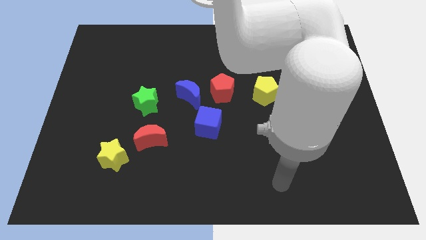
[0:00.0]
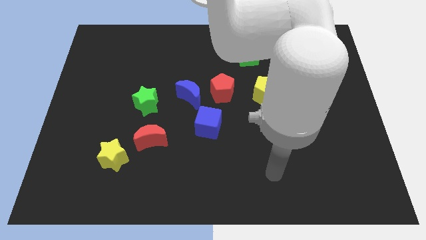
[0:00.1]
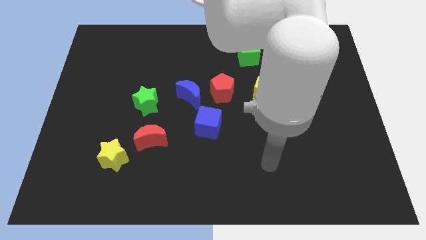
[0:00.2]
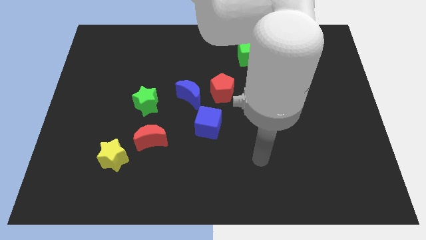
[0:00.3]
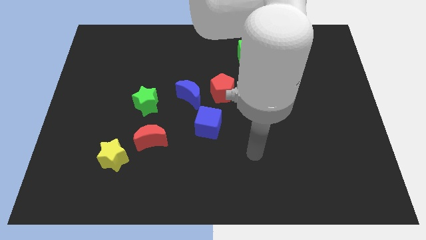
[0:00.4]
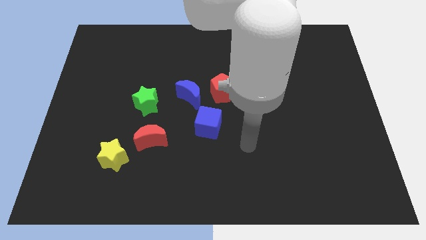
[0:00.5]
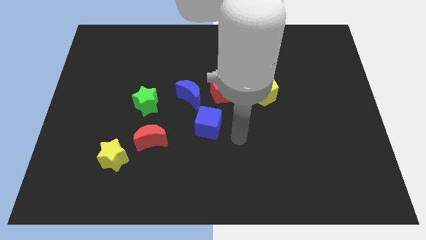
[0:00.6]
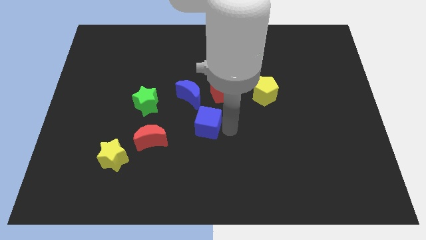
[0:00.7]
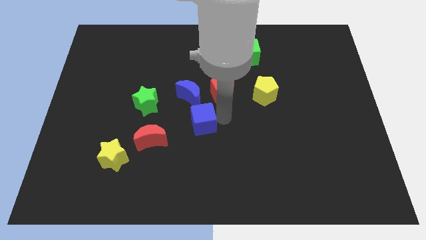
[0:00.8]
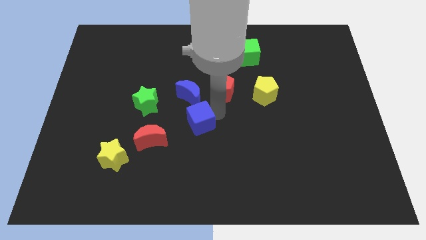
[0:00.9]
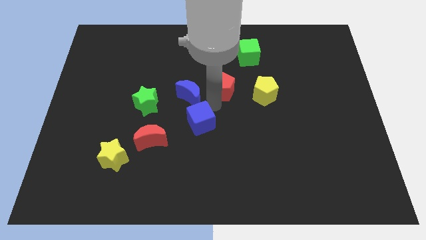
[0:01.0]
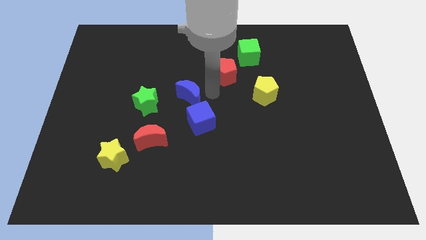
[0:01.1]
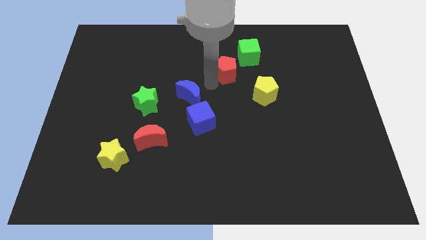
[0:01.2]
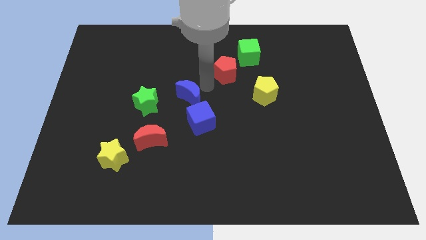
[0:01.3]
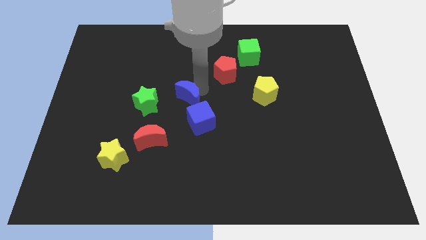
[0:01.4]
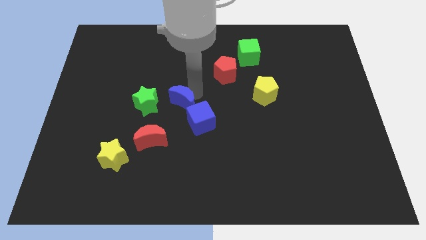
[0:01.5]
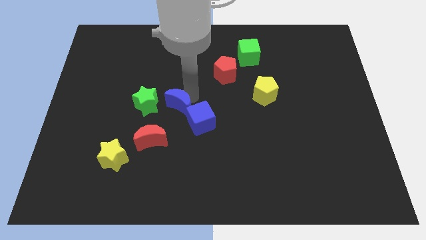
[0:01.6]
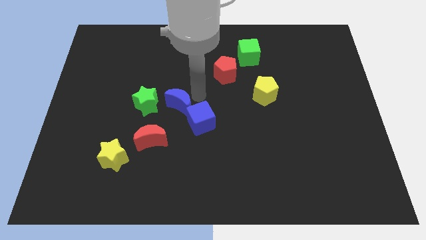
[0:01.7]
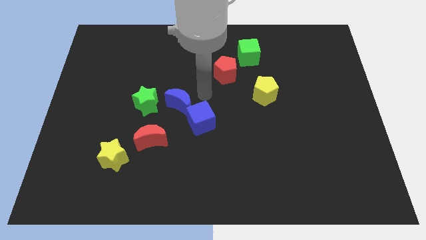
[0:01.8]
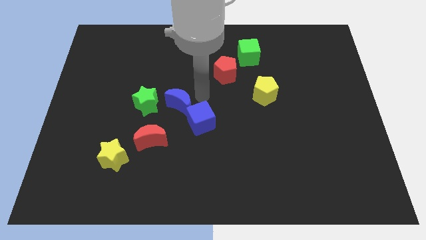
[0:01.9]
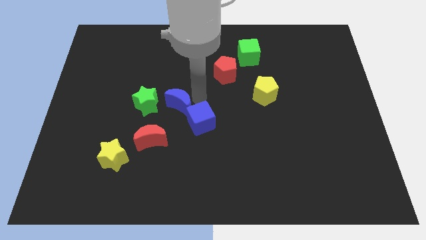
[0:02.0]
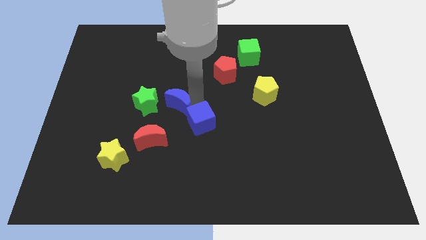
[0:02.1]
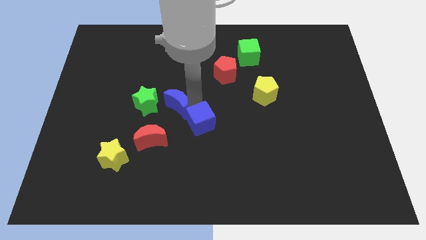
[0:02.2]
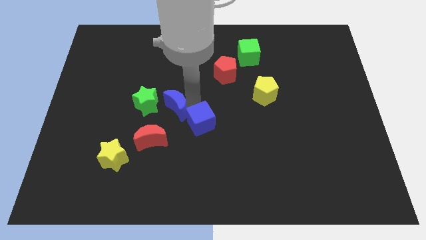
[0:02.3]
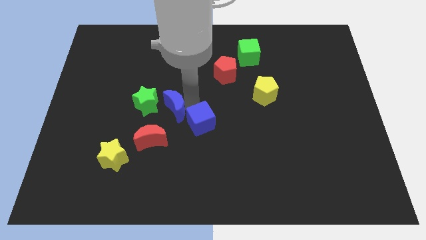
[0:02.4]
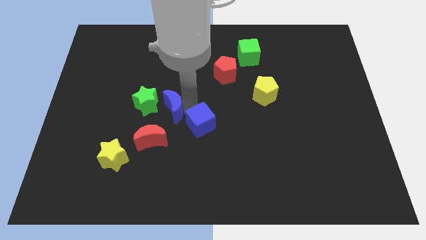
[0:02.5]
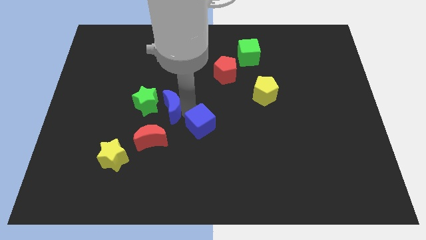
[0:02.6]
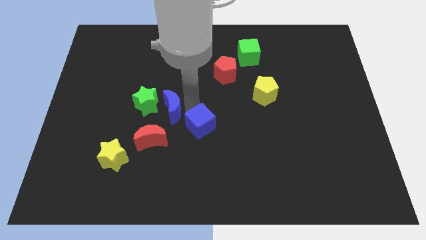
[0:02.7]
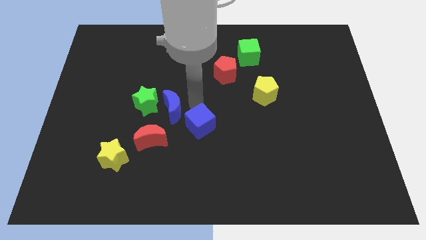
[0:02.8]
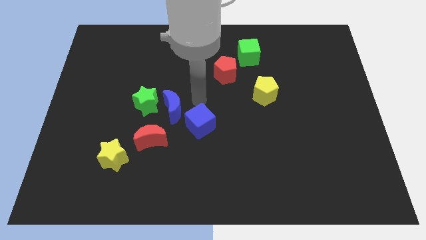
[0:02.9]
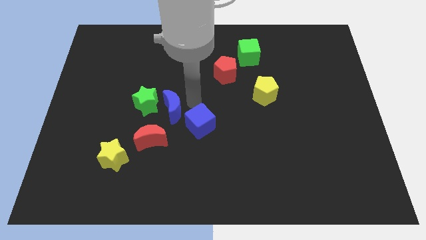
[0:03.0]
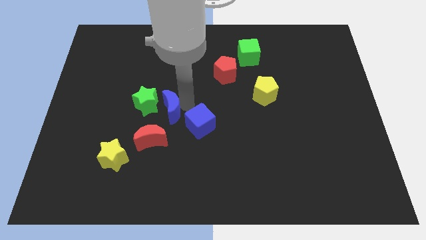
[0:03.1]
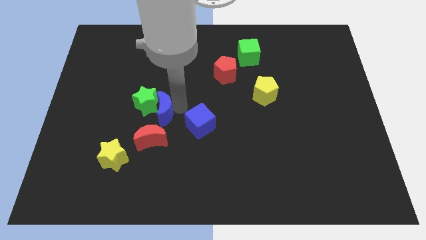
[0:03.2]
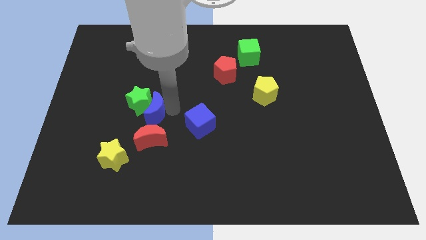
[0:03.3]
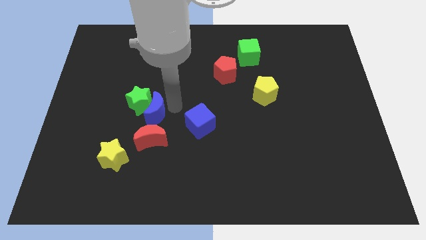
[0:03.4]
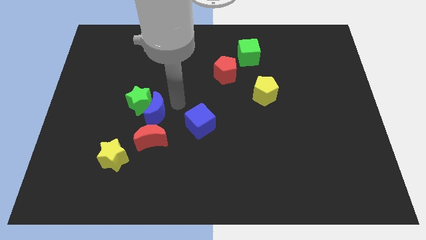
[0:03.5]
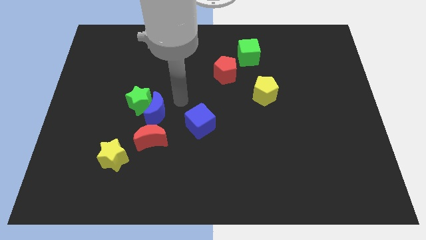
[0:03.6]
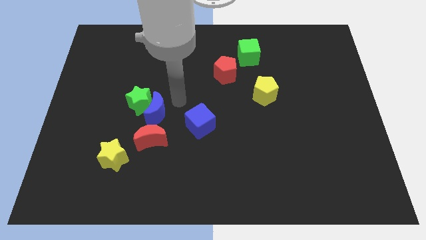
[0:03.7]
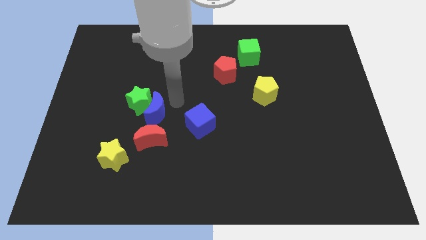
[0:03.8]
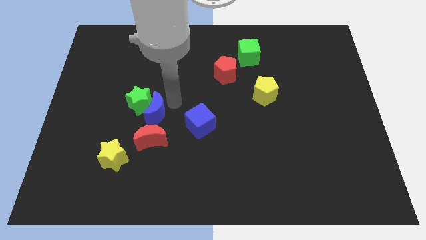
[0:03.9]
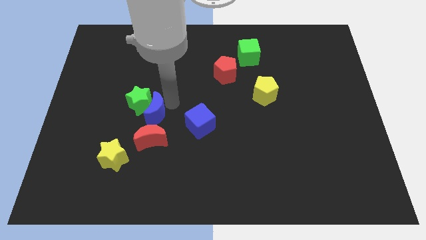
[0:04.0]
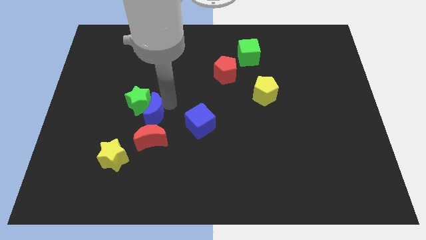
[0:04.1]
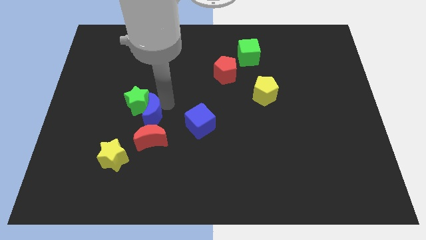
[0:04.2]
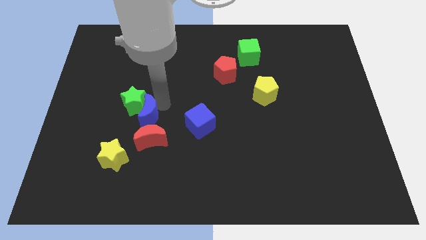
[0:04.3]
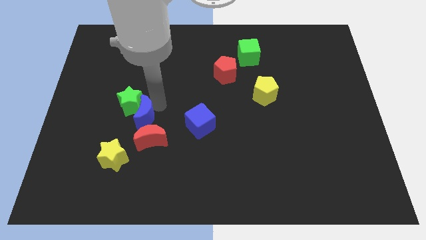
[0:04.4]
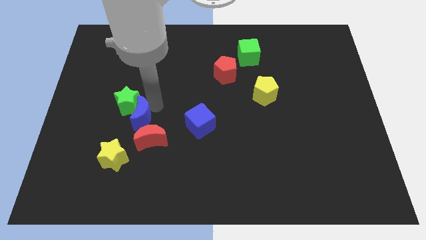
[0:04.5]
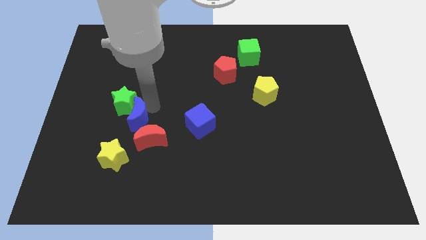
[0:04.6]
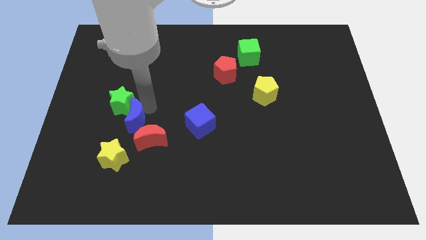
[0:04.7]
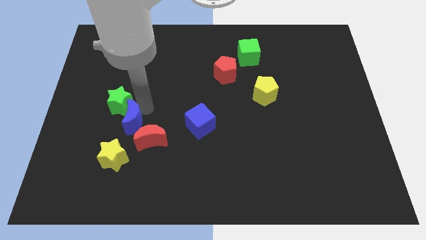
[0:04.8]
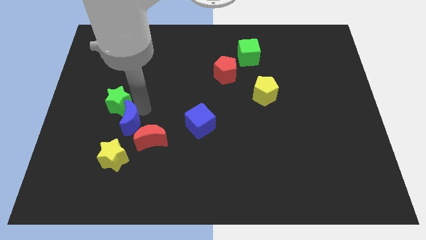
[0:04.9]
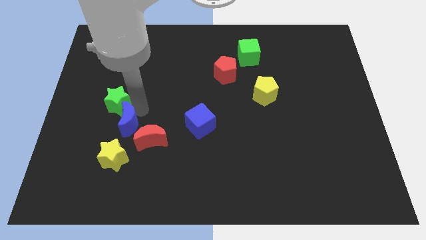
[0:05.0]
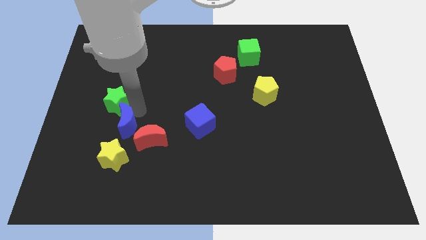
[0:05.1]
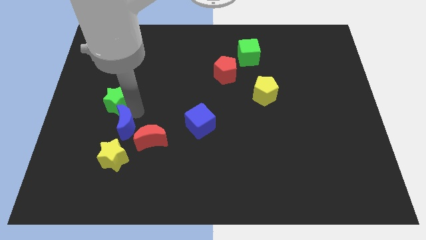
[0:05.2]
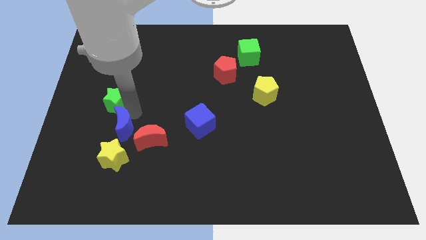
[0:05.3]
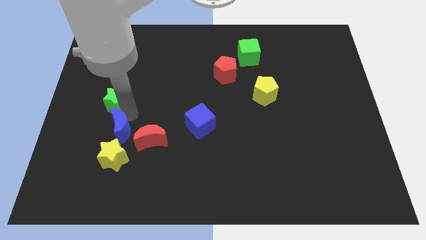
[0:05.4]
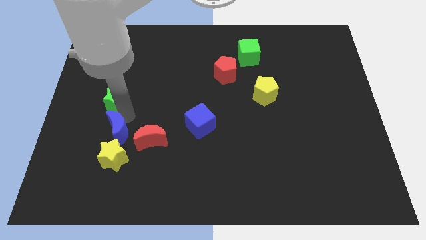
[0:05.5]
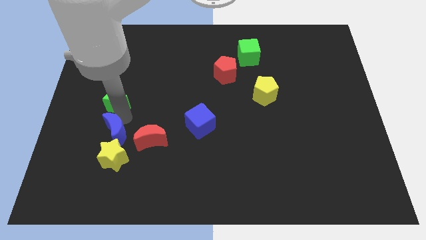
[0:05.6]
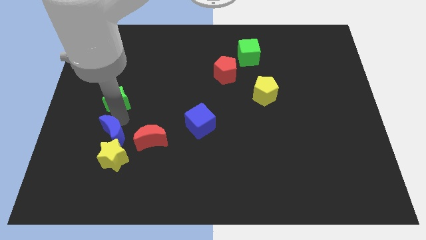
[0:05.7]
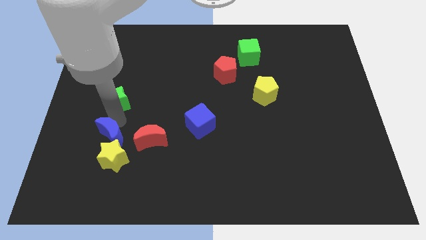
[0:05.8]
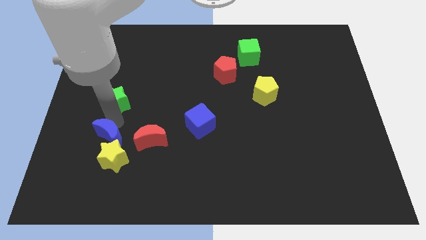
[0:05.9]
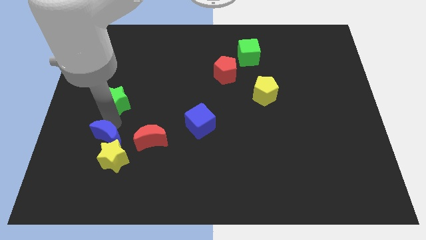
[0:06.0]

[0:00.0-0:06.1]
slide the blue moon diagonally down and left

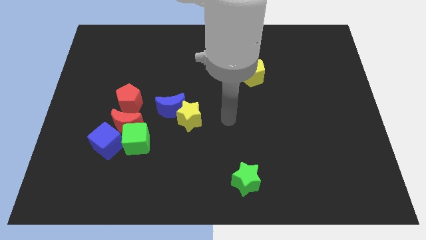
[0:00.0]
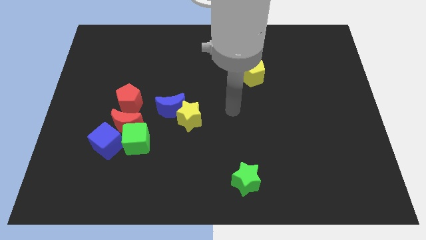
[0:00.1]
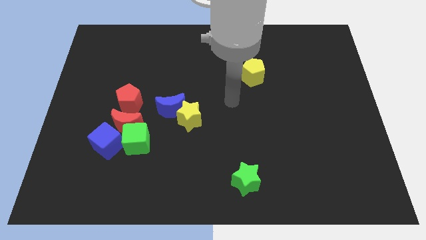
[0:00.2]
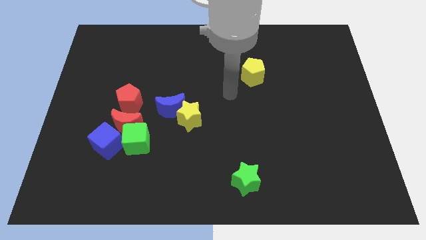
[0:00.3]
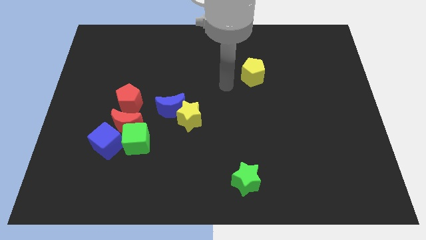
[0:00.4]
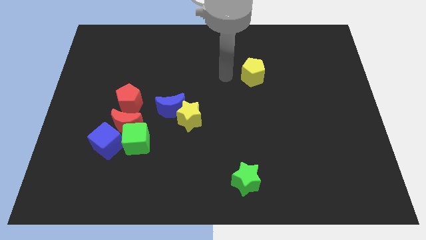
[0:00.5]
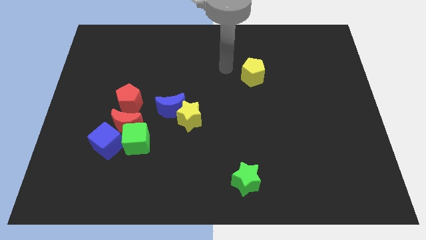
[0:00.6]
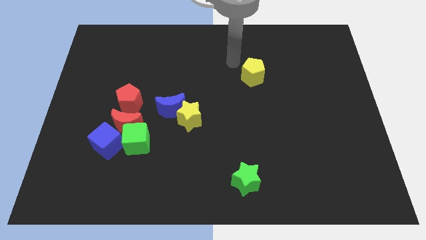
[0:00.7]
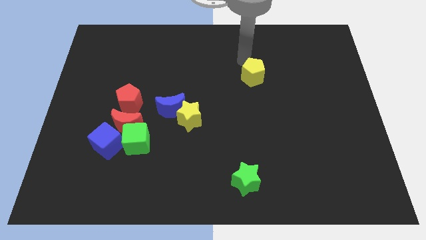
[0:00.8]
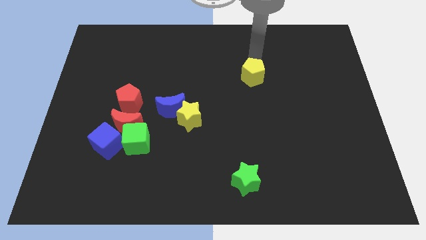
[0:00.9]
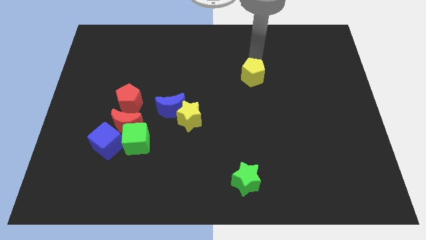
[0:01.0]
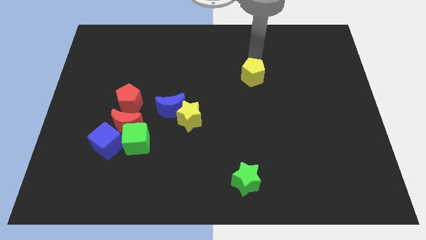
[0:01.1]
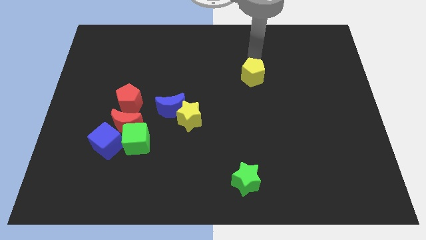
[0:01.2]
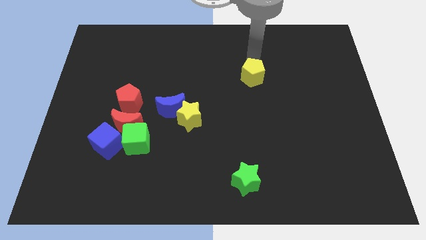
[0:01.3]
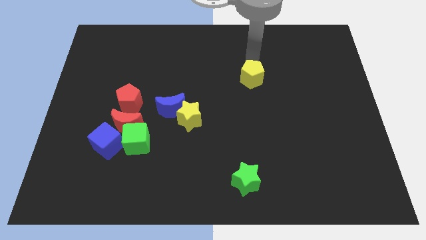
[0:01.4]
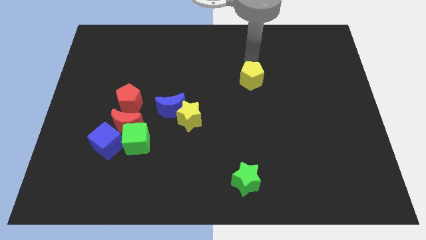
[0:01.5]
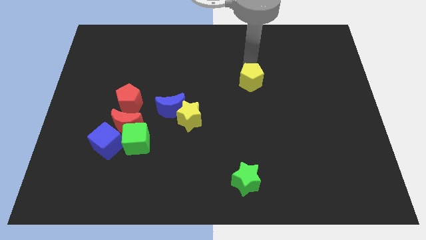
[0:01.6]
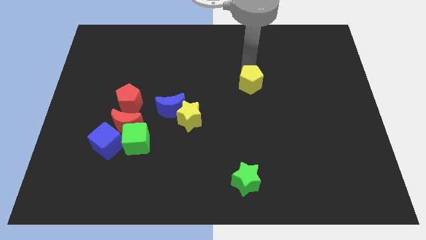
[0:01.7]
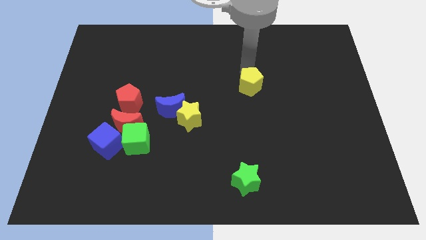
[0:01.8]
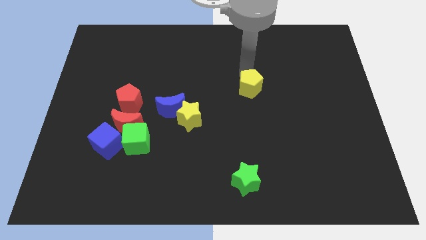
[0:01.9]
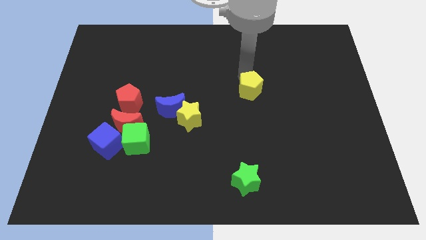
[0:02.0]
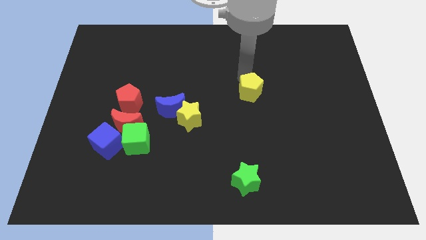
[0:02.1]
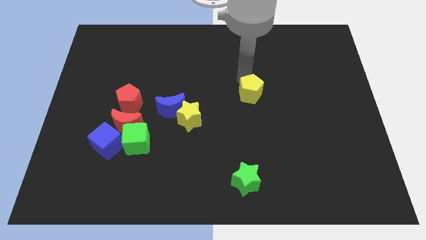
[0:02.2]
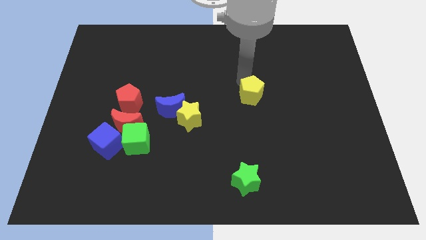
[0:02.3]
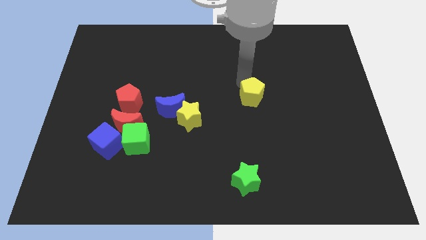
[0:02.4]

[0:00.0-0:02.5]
push the yellow pentagon a little bit downwards
